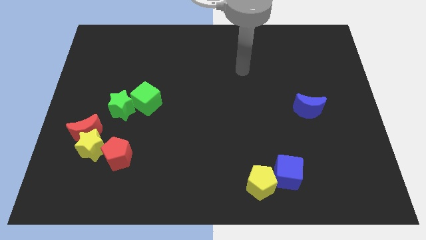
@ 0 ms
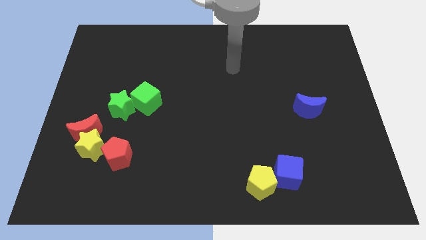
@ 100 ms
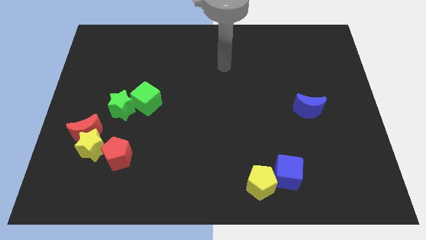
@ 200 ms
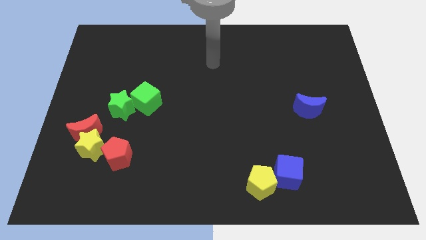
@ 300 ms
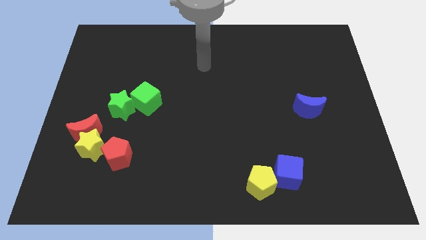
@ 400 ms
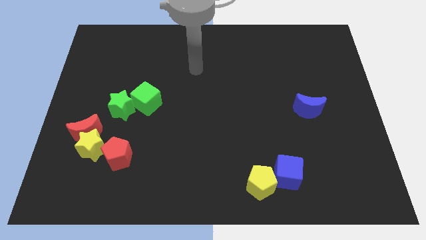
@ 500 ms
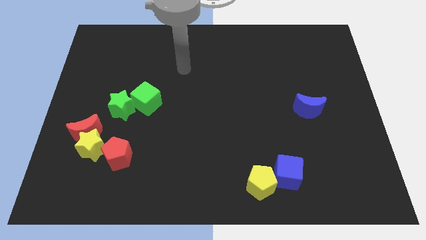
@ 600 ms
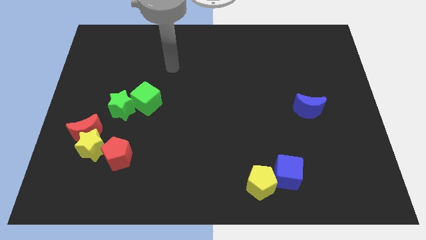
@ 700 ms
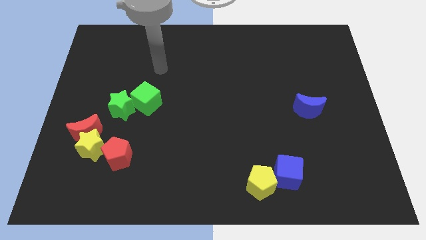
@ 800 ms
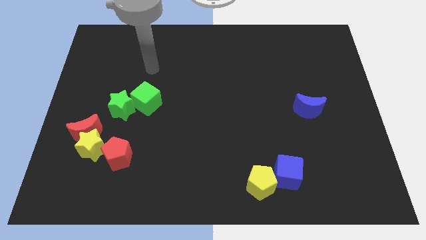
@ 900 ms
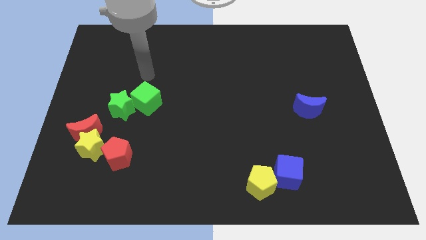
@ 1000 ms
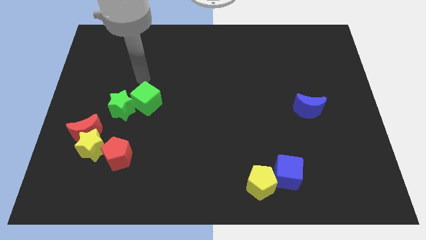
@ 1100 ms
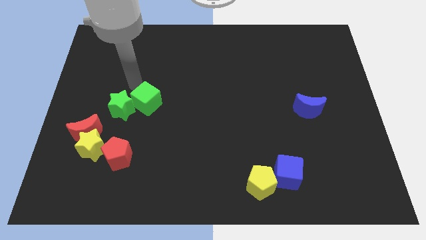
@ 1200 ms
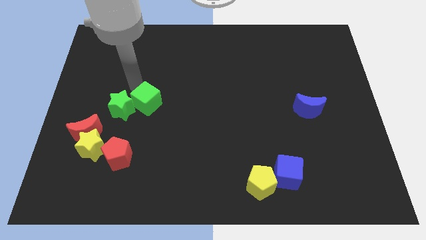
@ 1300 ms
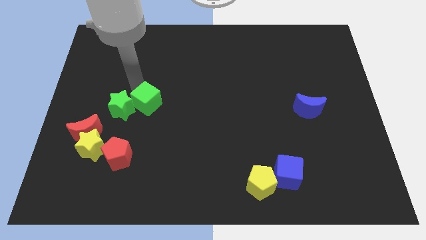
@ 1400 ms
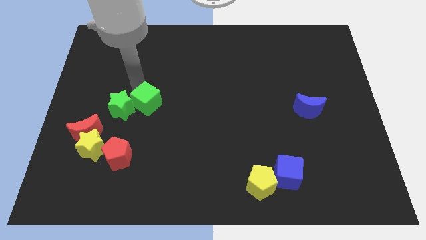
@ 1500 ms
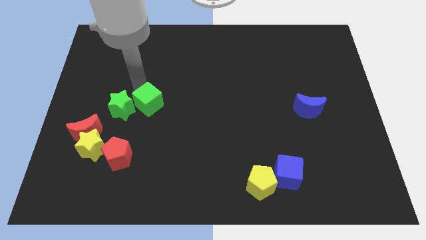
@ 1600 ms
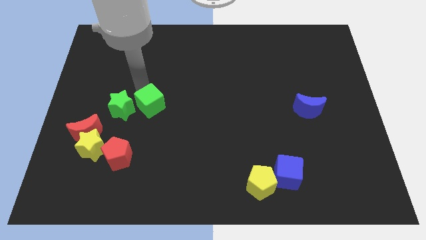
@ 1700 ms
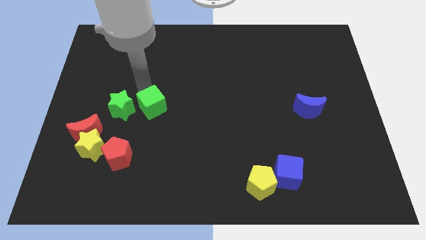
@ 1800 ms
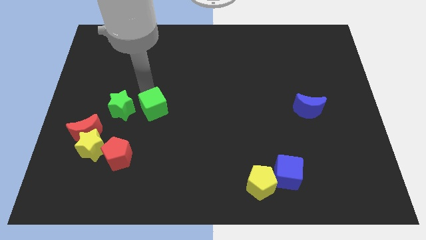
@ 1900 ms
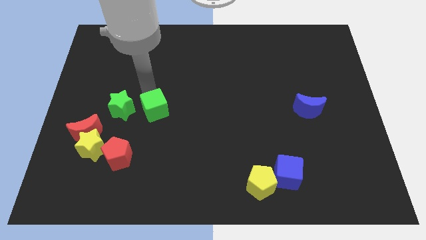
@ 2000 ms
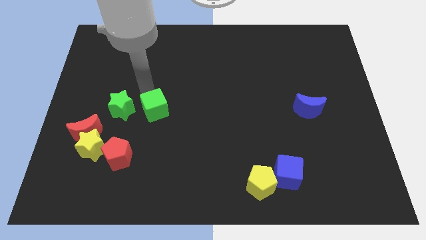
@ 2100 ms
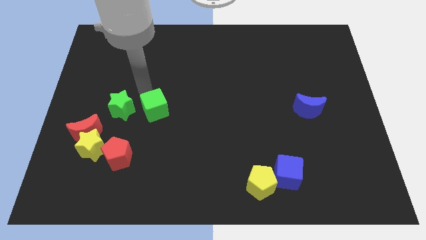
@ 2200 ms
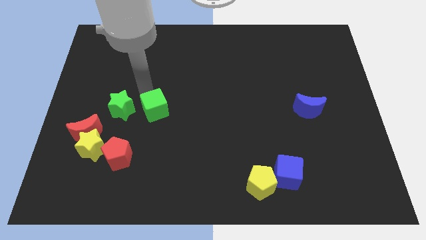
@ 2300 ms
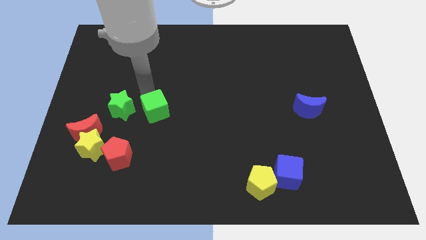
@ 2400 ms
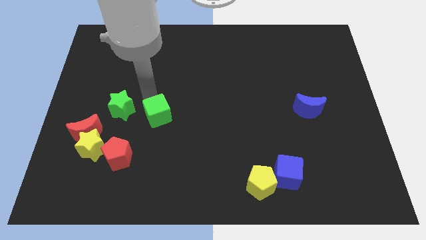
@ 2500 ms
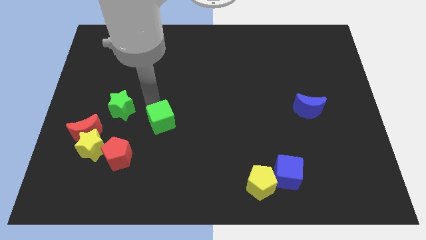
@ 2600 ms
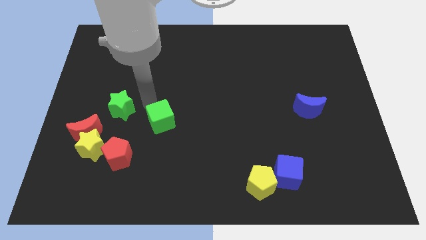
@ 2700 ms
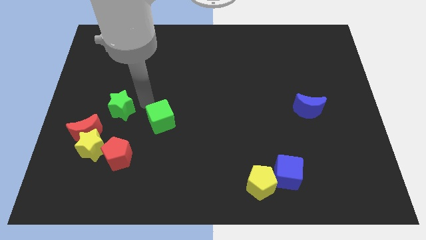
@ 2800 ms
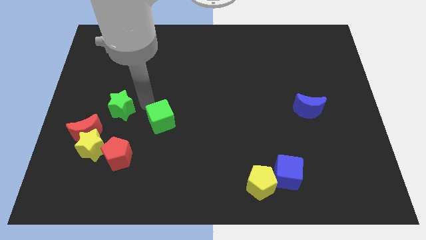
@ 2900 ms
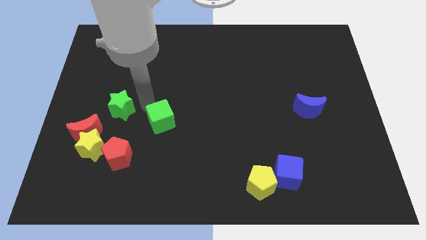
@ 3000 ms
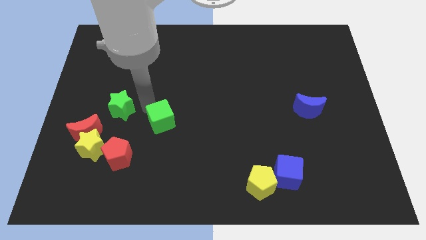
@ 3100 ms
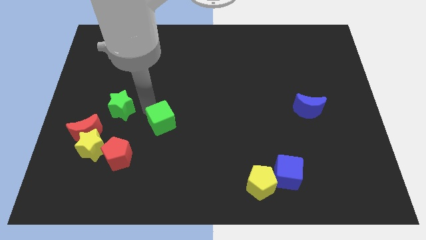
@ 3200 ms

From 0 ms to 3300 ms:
push the green cube down and right a little bit

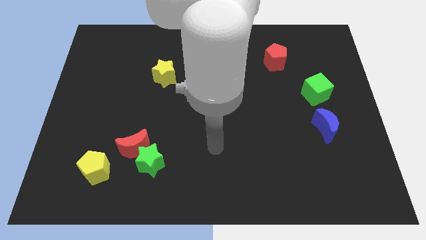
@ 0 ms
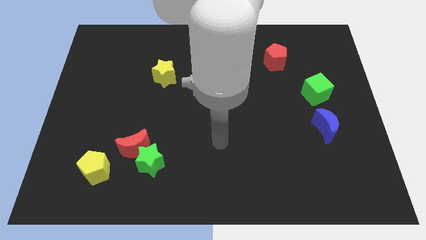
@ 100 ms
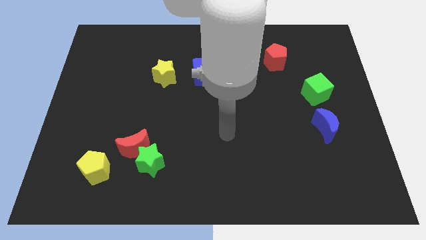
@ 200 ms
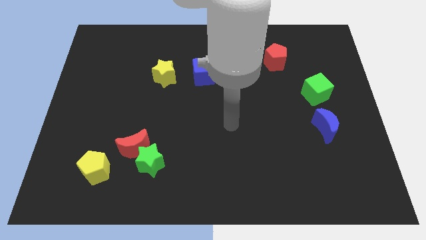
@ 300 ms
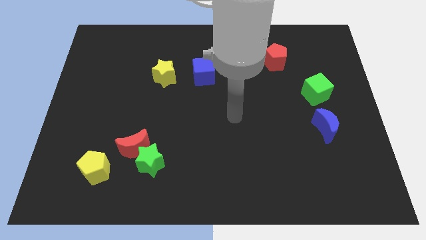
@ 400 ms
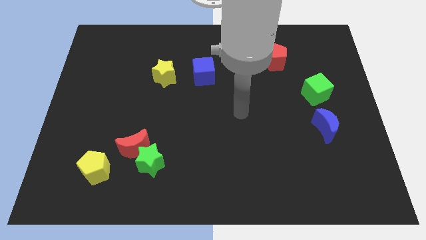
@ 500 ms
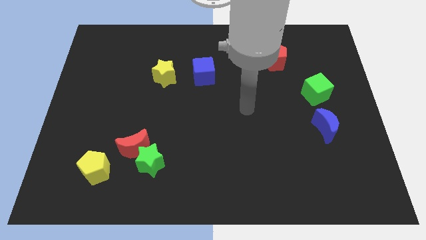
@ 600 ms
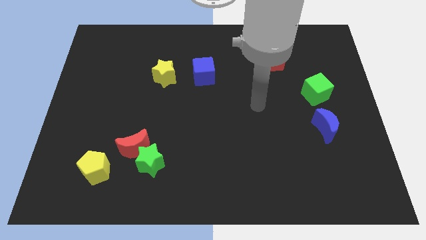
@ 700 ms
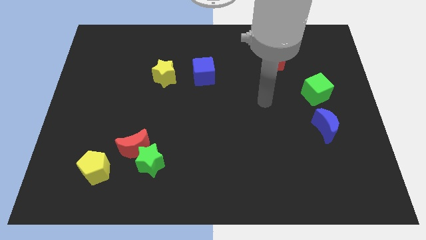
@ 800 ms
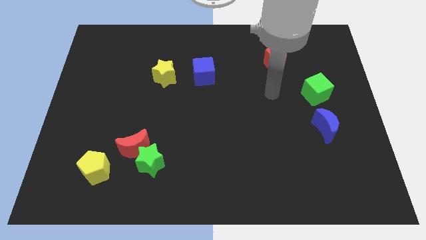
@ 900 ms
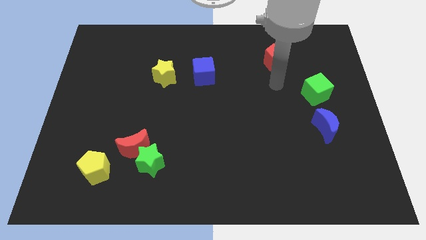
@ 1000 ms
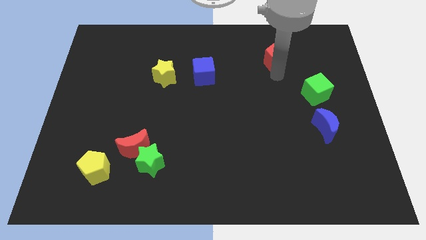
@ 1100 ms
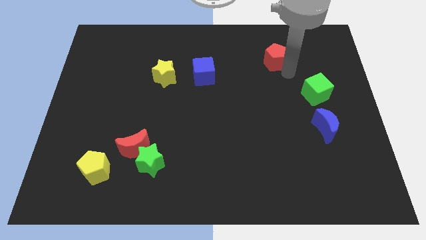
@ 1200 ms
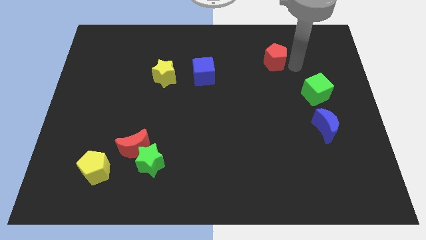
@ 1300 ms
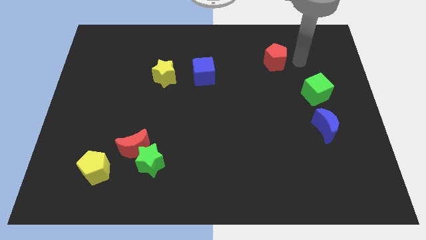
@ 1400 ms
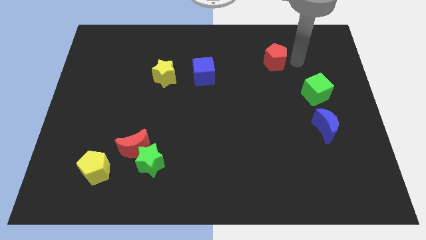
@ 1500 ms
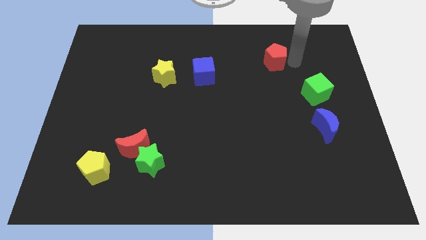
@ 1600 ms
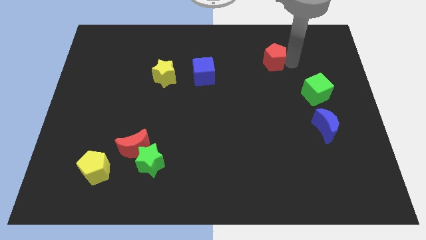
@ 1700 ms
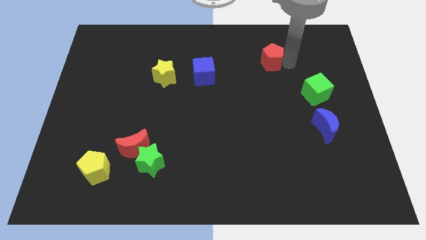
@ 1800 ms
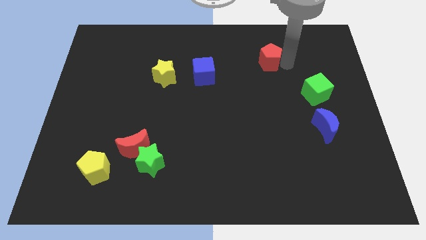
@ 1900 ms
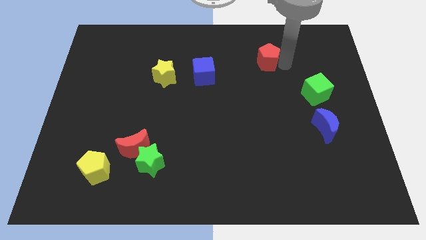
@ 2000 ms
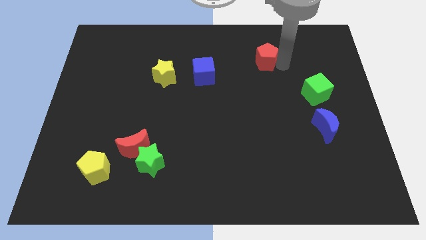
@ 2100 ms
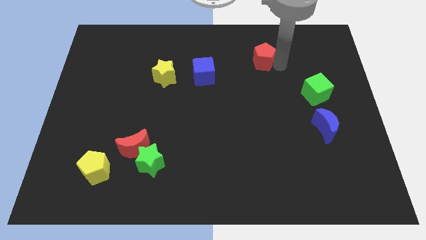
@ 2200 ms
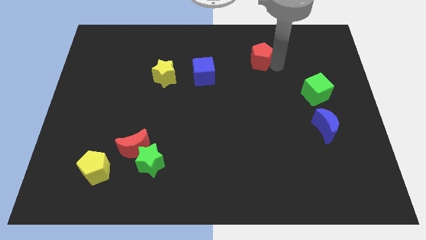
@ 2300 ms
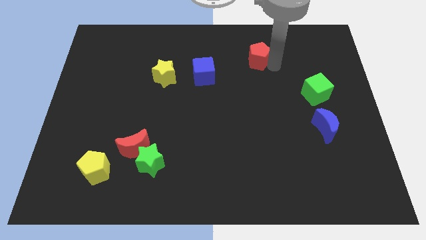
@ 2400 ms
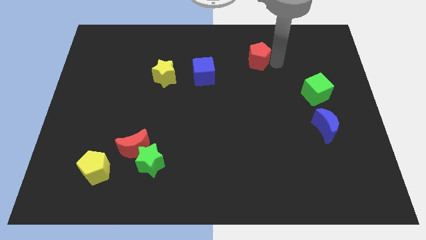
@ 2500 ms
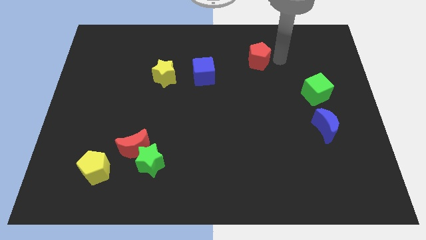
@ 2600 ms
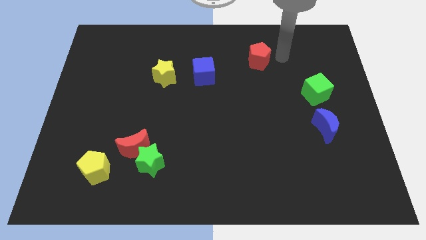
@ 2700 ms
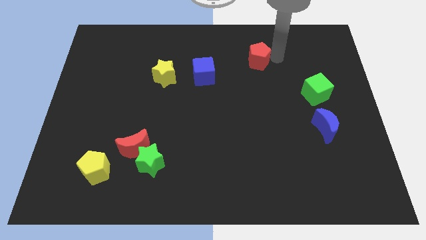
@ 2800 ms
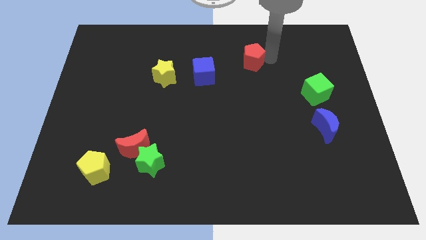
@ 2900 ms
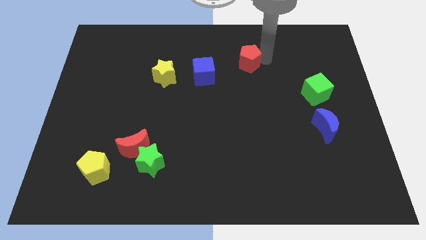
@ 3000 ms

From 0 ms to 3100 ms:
move the red pentagon left a bit

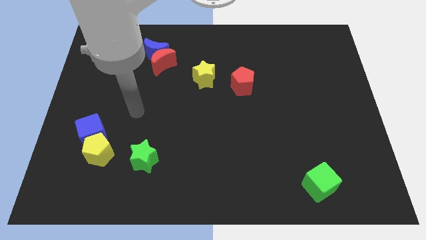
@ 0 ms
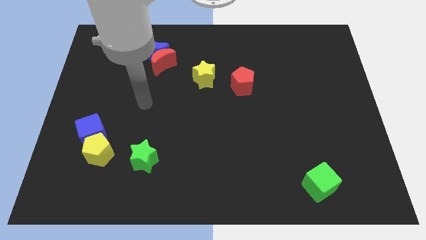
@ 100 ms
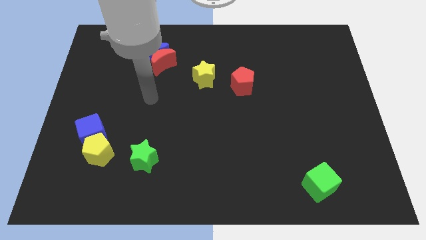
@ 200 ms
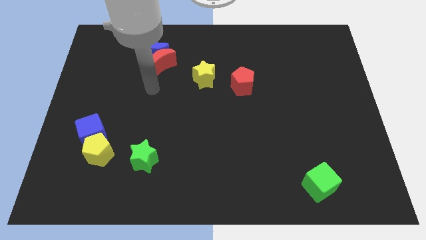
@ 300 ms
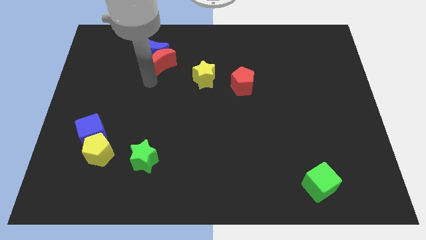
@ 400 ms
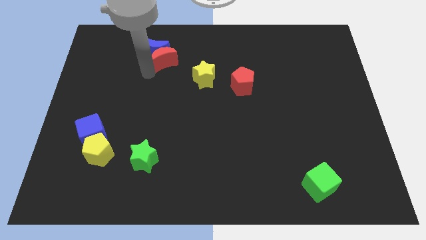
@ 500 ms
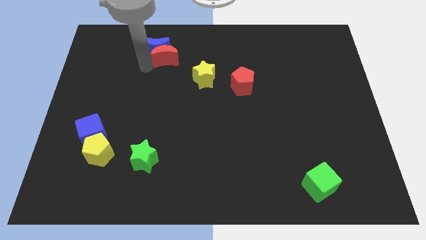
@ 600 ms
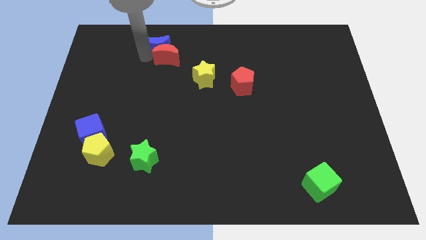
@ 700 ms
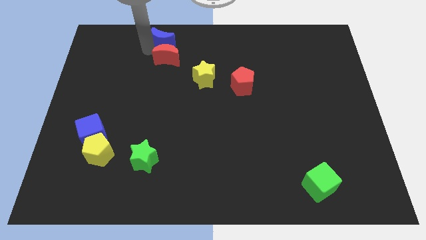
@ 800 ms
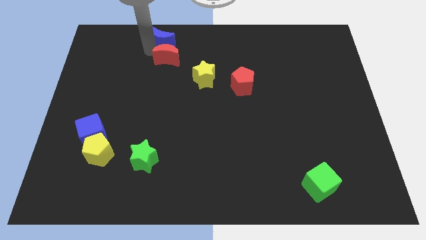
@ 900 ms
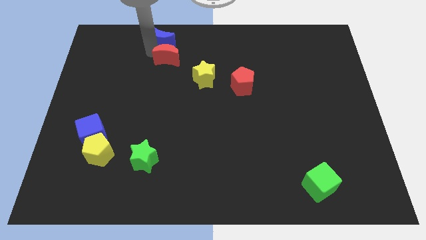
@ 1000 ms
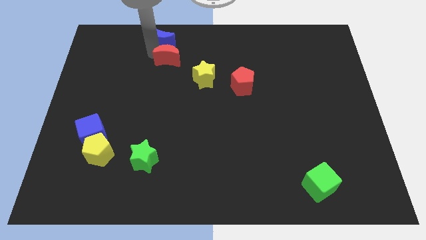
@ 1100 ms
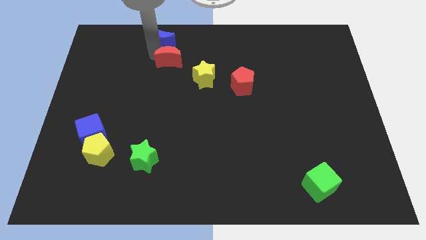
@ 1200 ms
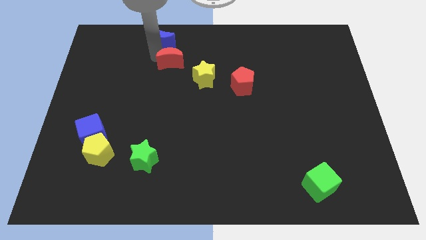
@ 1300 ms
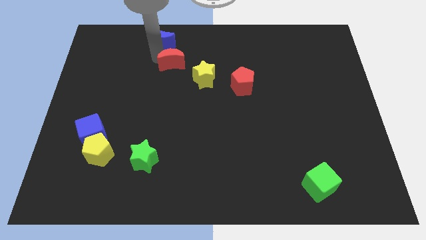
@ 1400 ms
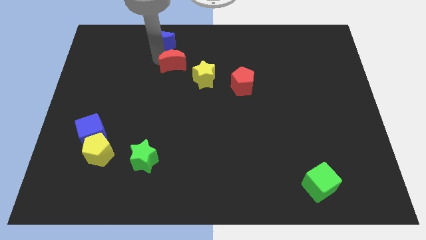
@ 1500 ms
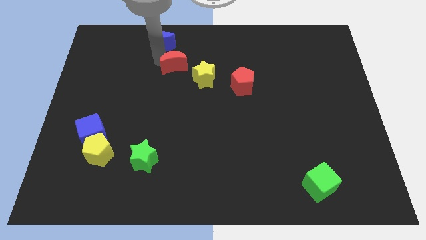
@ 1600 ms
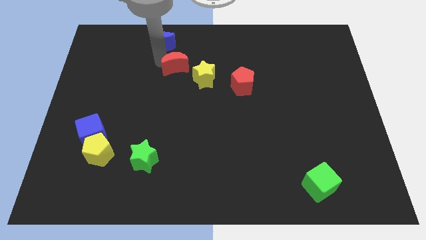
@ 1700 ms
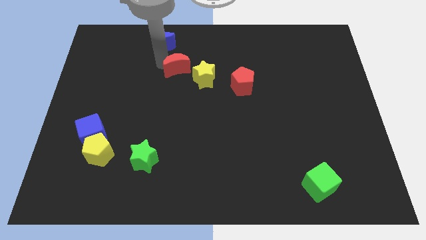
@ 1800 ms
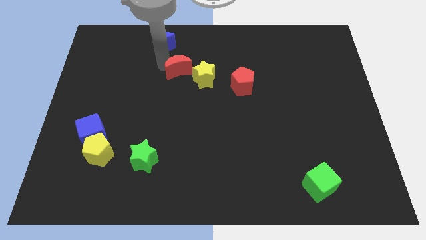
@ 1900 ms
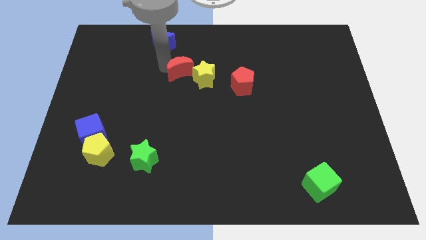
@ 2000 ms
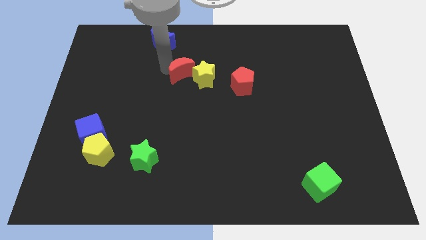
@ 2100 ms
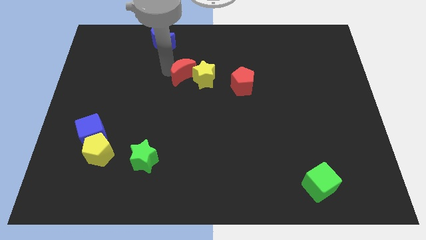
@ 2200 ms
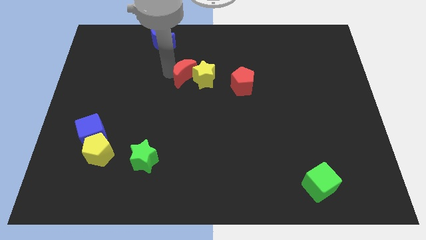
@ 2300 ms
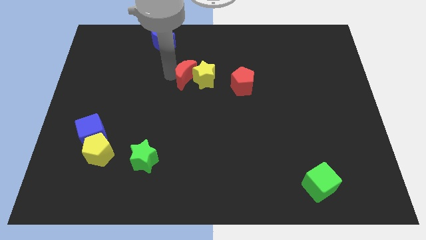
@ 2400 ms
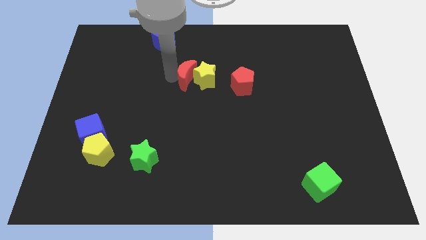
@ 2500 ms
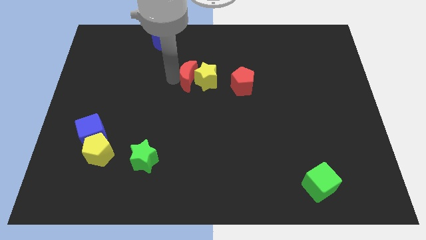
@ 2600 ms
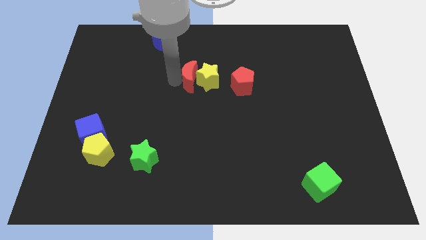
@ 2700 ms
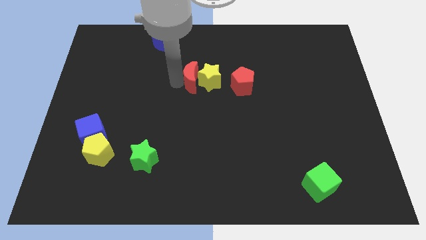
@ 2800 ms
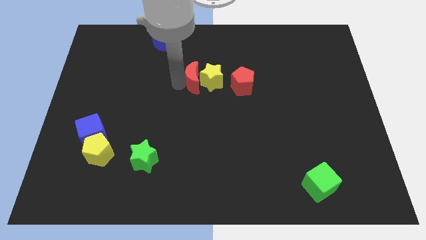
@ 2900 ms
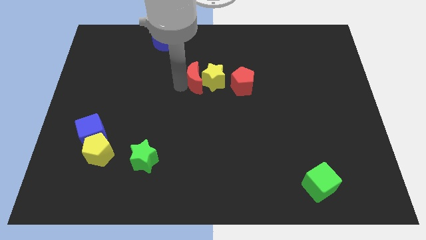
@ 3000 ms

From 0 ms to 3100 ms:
slightly move the red moon right
